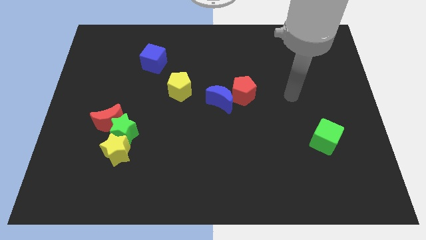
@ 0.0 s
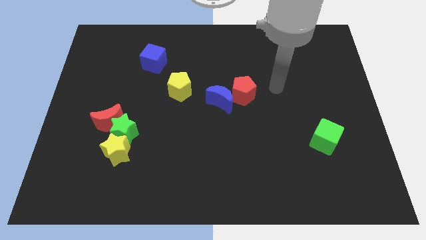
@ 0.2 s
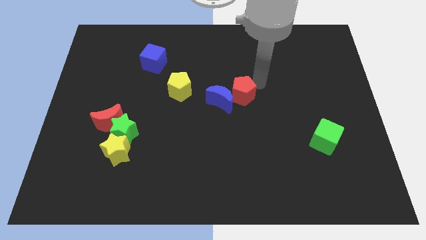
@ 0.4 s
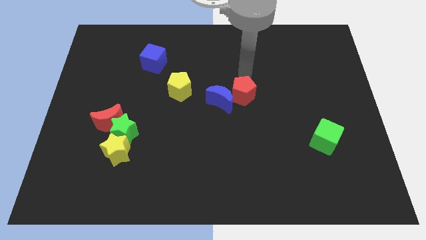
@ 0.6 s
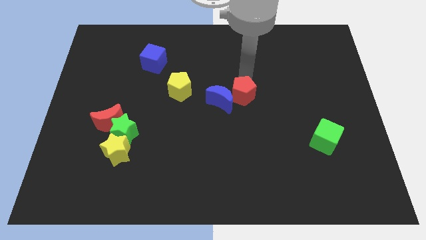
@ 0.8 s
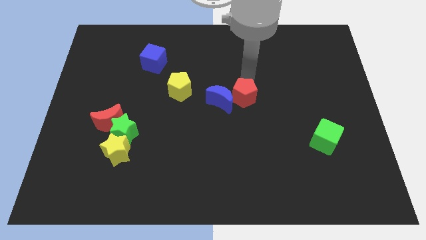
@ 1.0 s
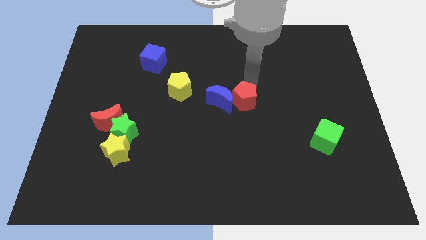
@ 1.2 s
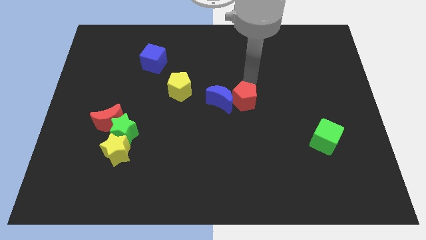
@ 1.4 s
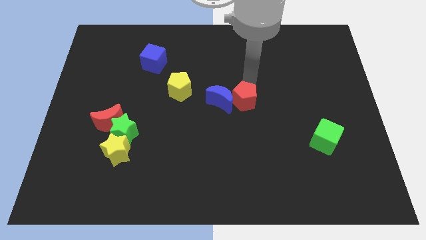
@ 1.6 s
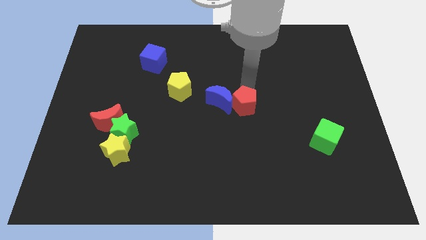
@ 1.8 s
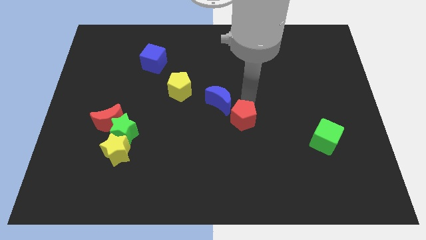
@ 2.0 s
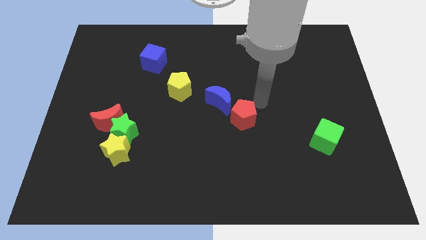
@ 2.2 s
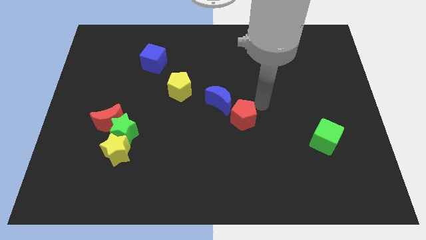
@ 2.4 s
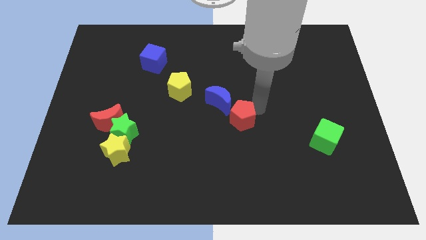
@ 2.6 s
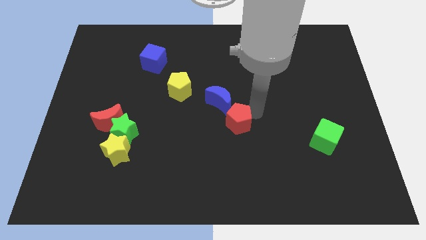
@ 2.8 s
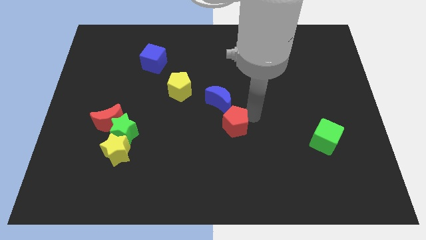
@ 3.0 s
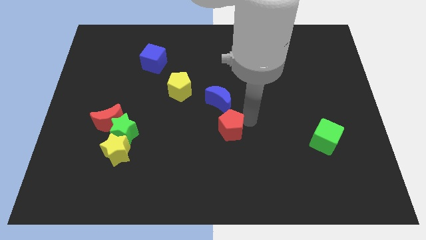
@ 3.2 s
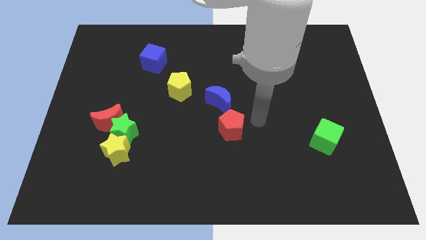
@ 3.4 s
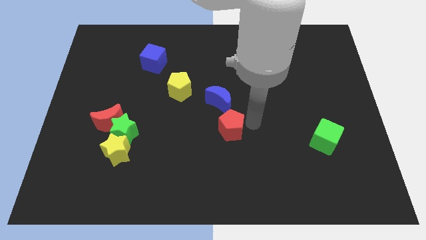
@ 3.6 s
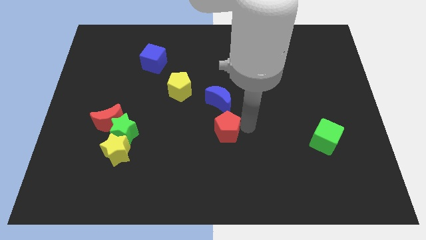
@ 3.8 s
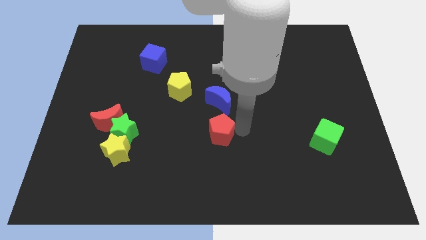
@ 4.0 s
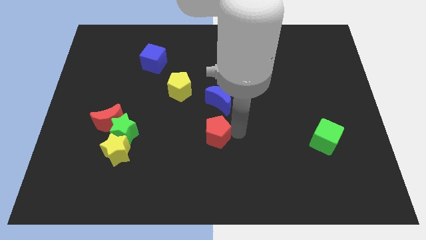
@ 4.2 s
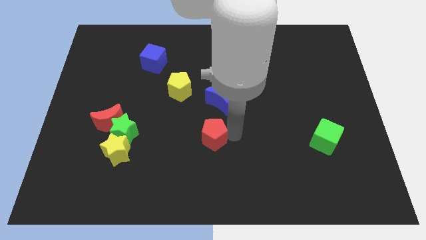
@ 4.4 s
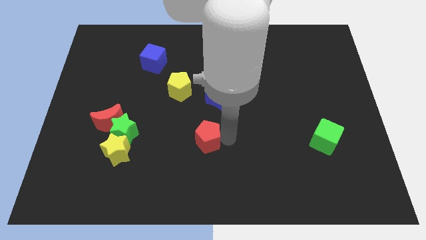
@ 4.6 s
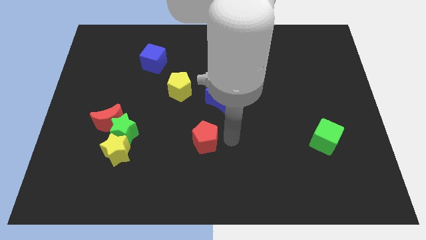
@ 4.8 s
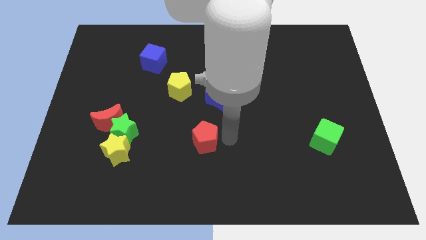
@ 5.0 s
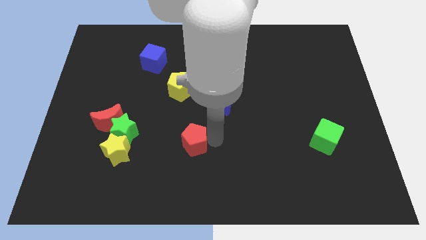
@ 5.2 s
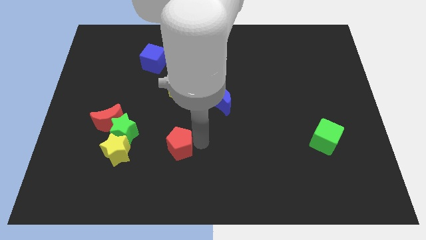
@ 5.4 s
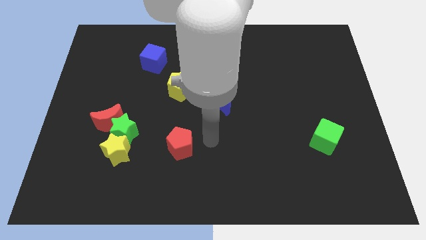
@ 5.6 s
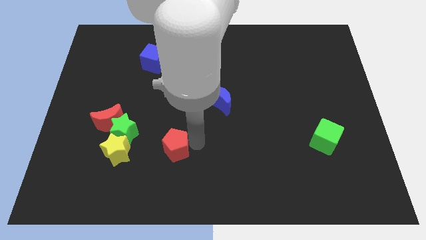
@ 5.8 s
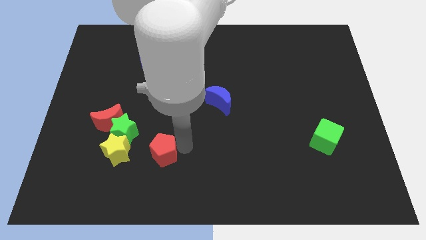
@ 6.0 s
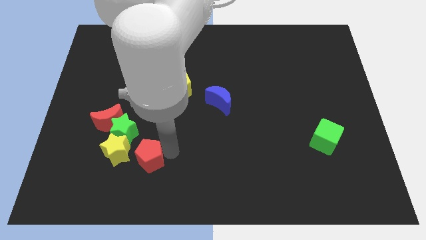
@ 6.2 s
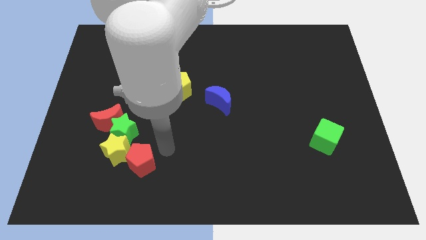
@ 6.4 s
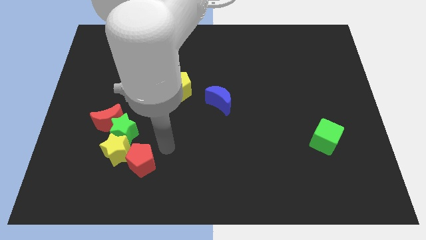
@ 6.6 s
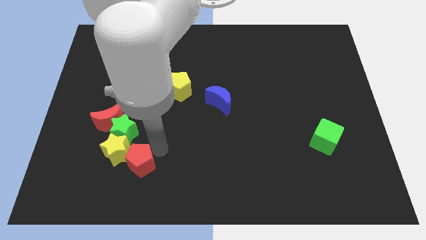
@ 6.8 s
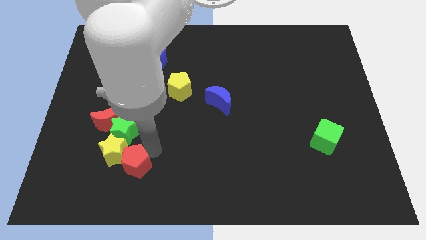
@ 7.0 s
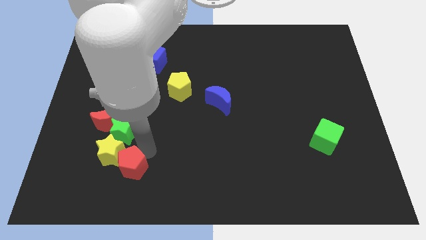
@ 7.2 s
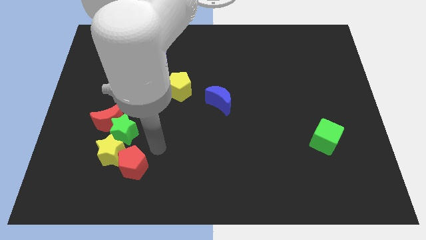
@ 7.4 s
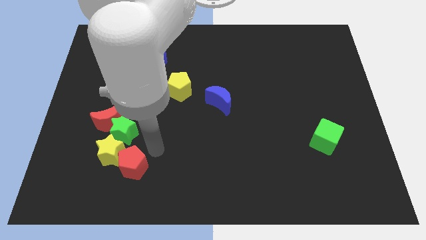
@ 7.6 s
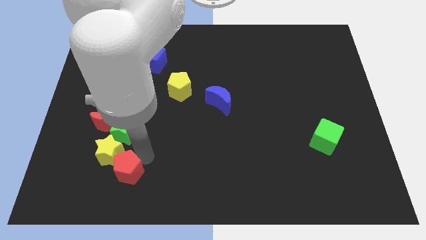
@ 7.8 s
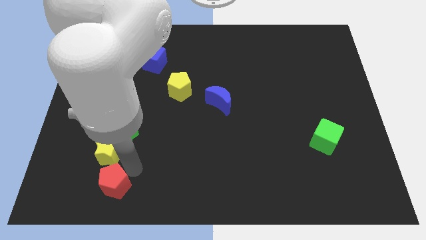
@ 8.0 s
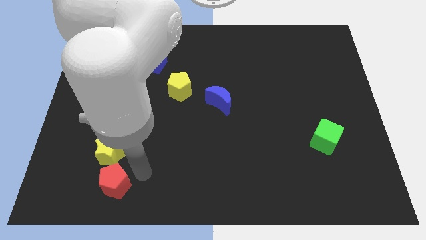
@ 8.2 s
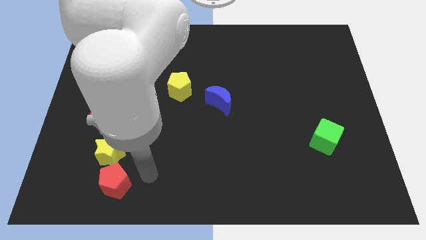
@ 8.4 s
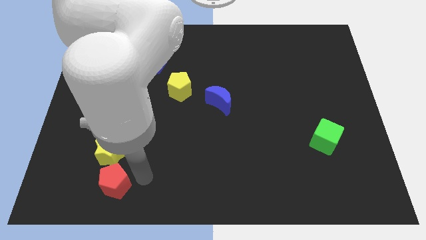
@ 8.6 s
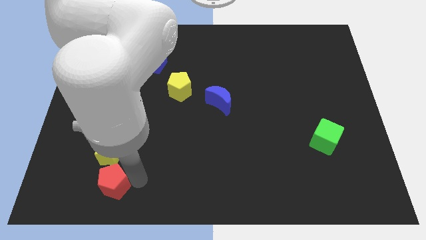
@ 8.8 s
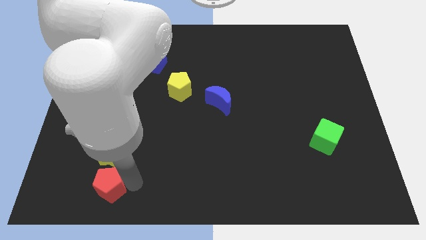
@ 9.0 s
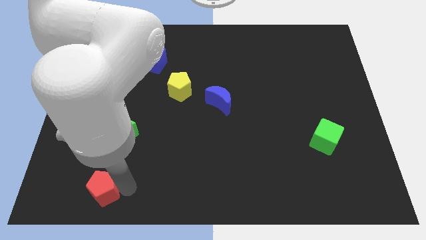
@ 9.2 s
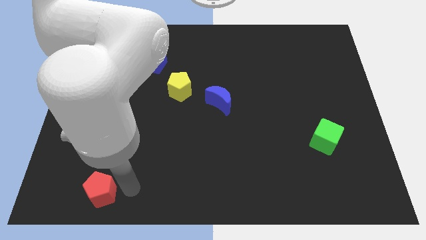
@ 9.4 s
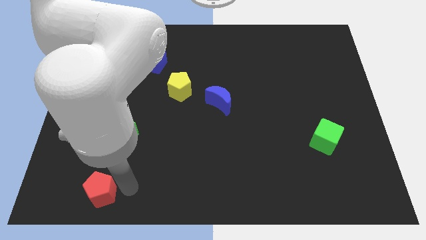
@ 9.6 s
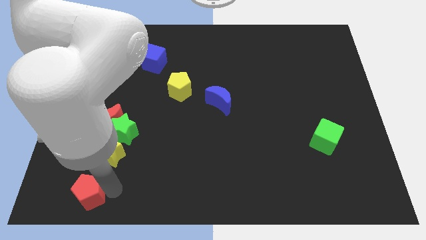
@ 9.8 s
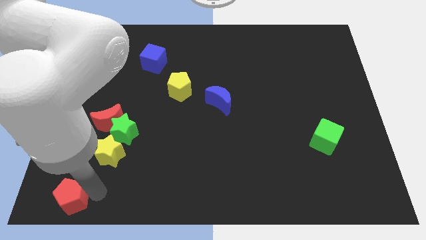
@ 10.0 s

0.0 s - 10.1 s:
put the red pentagon to the bottom left of the board
